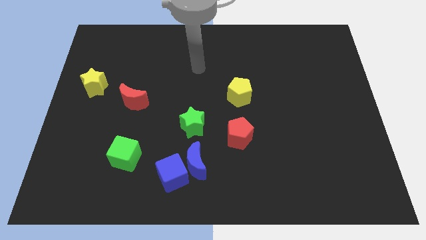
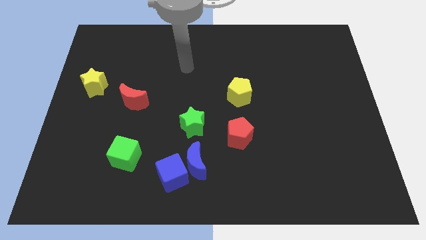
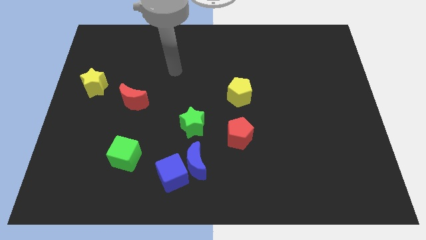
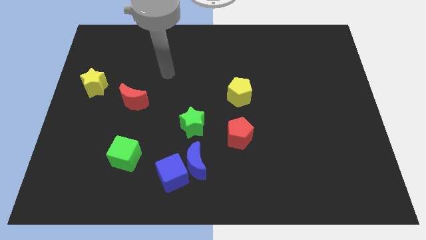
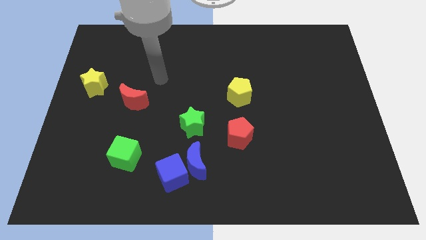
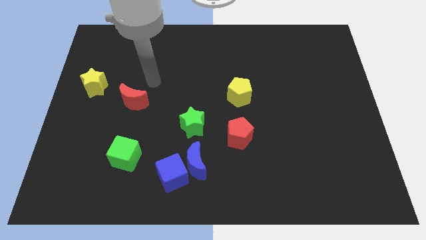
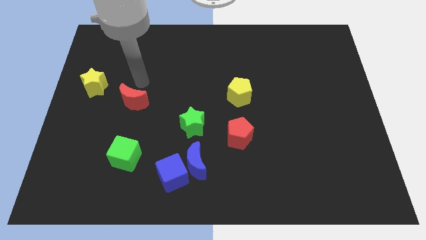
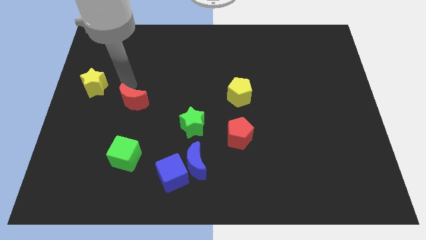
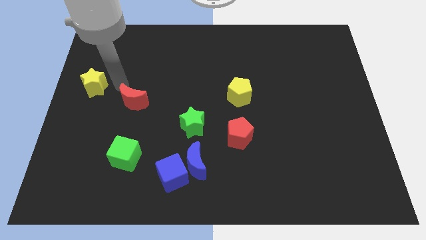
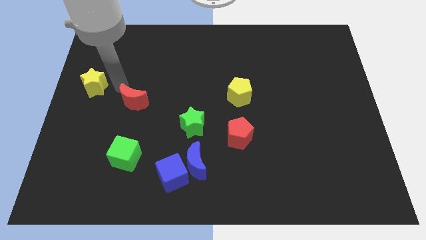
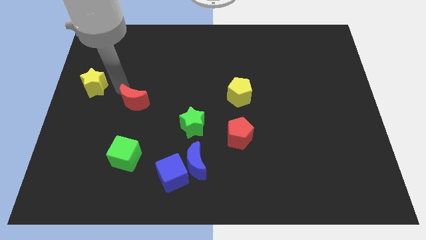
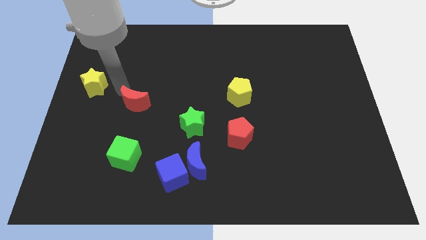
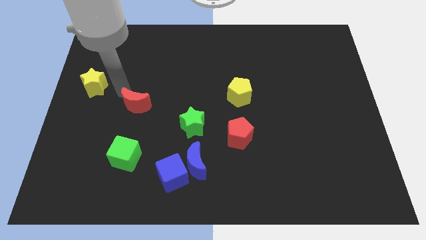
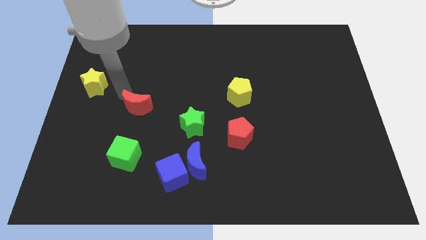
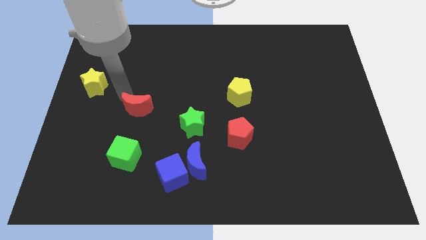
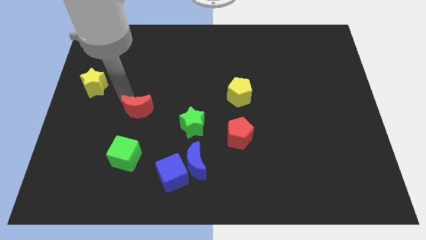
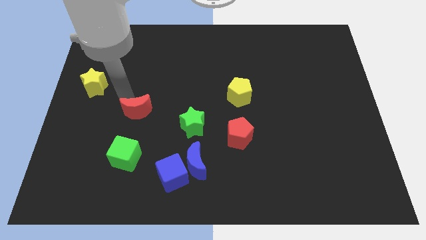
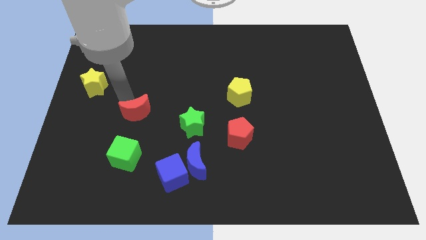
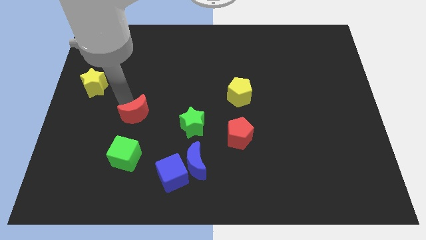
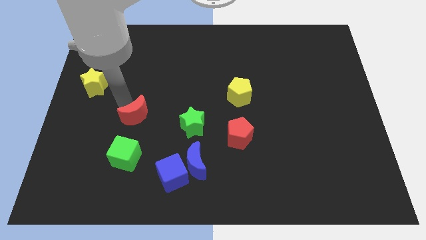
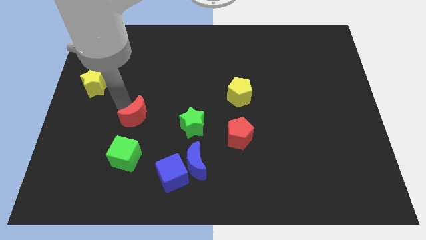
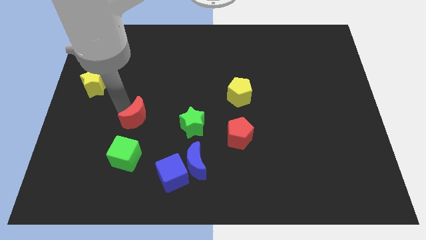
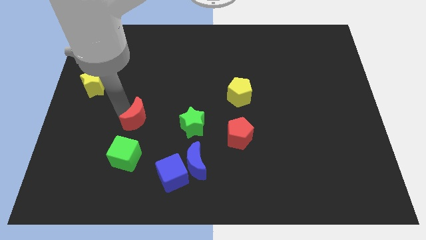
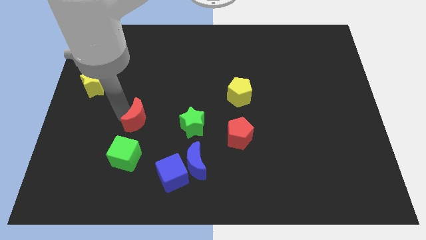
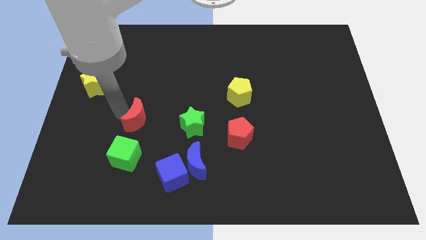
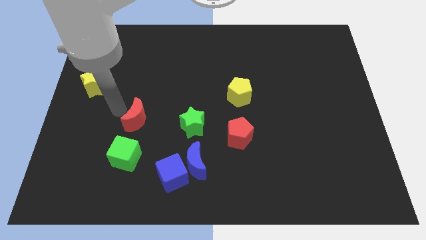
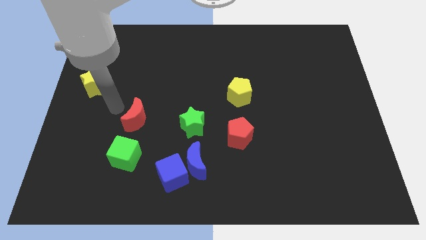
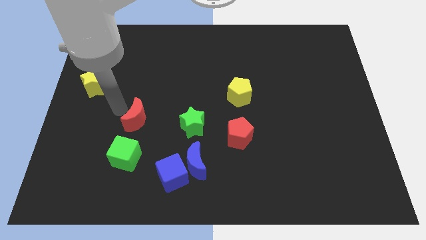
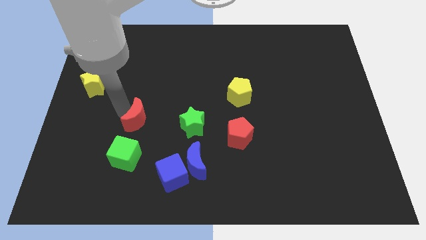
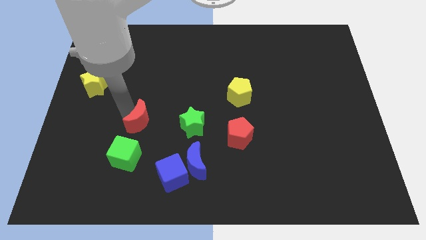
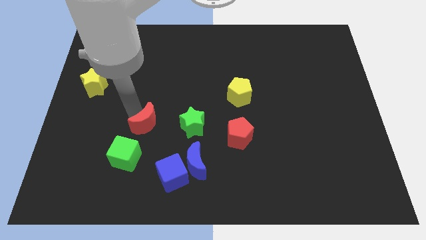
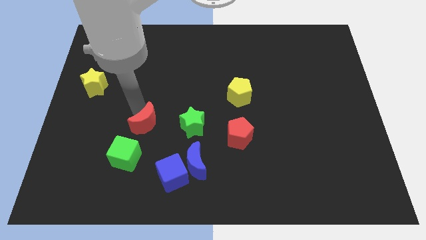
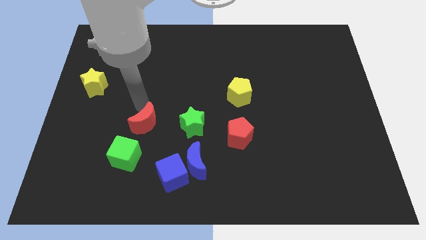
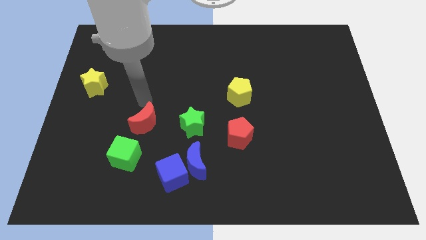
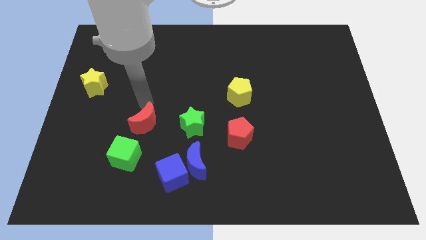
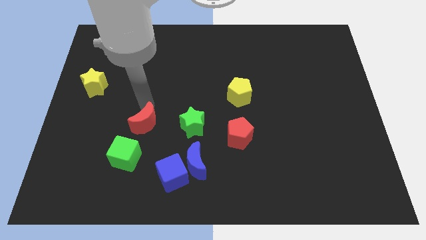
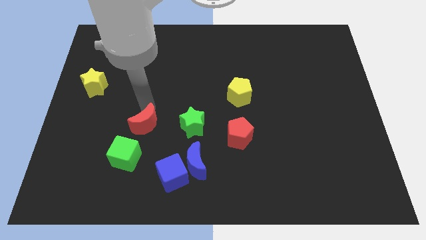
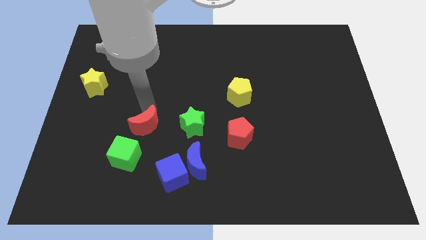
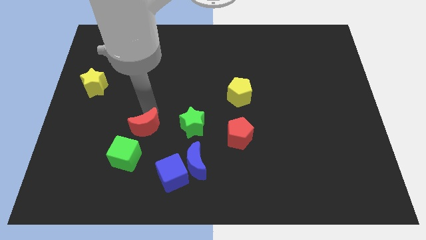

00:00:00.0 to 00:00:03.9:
slide the red moon a little bit down

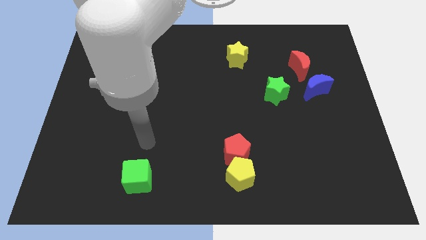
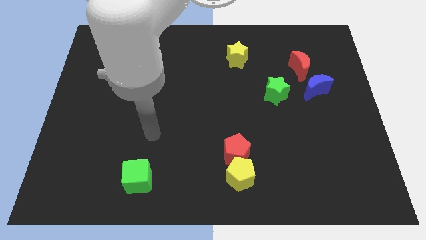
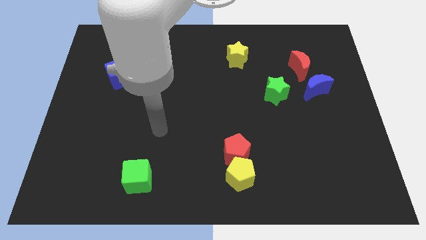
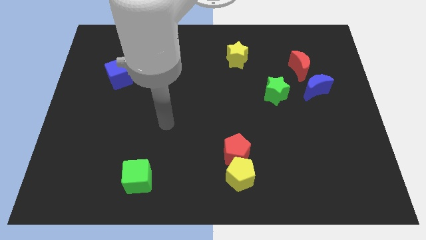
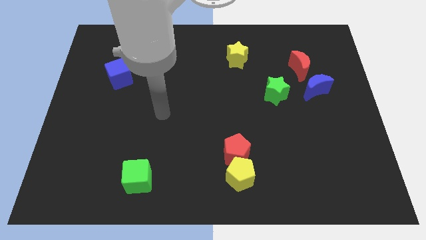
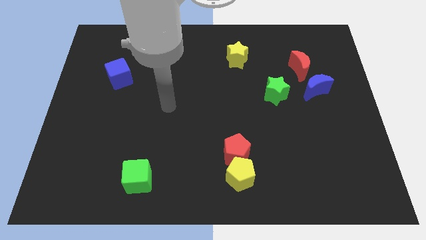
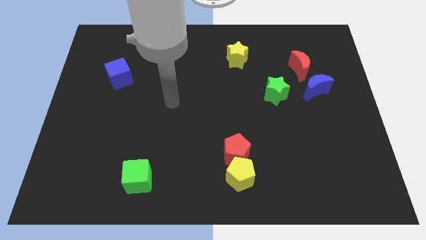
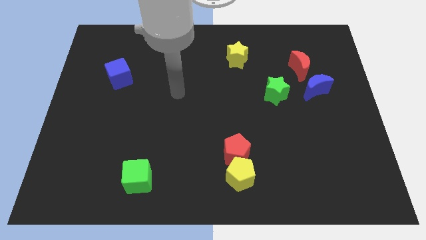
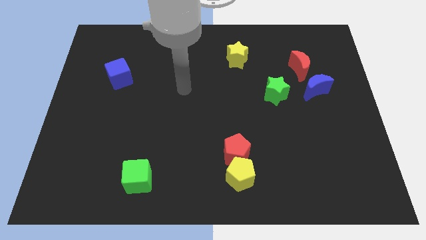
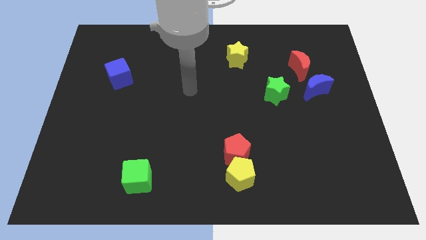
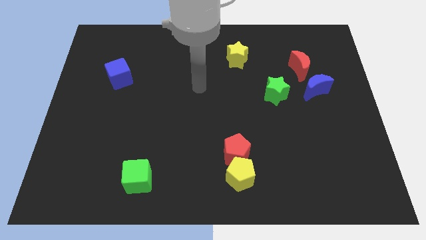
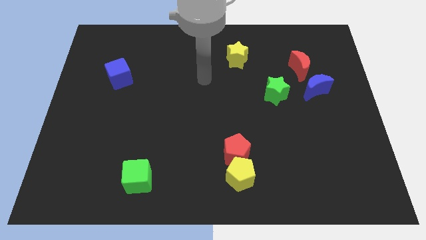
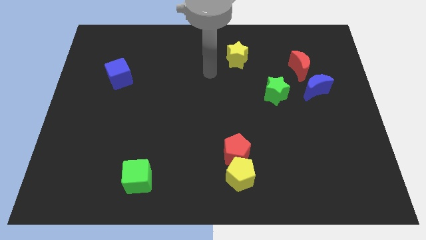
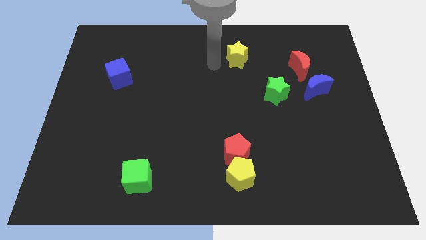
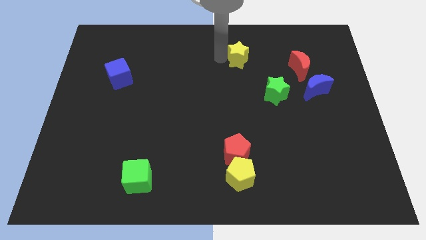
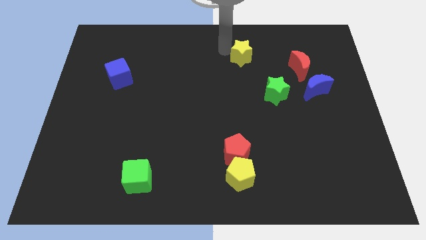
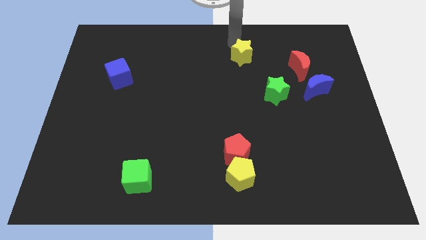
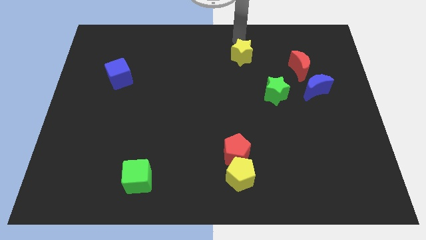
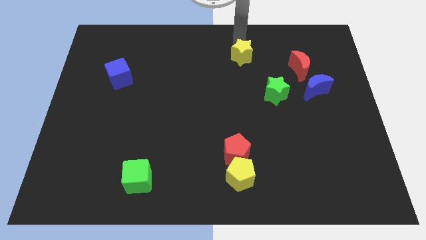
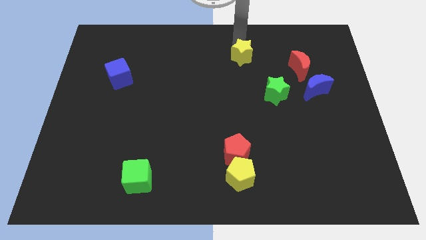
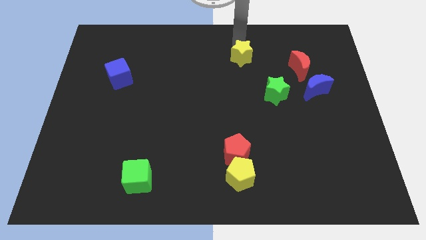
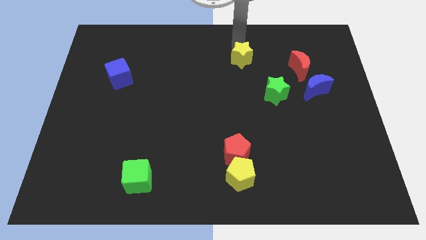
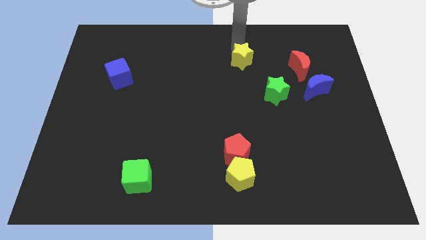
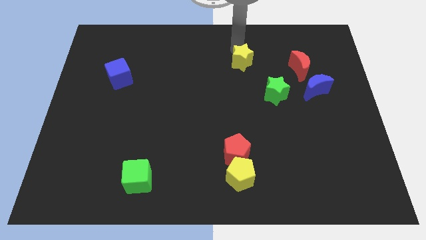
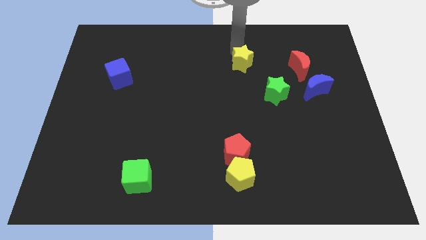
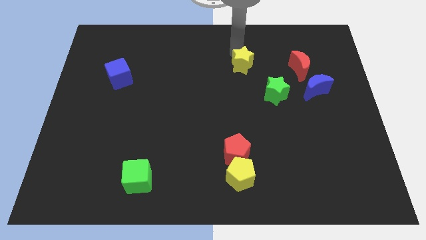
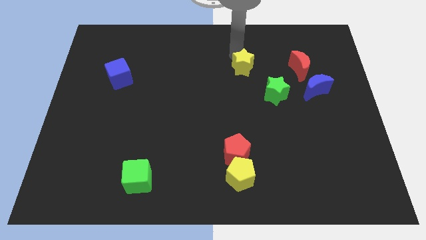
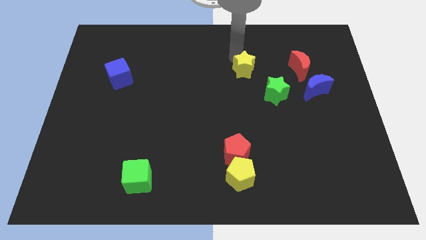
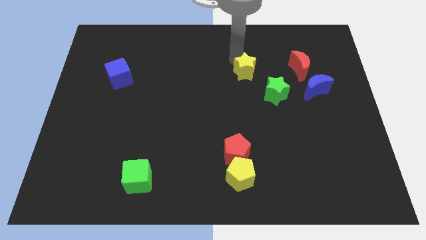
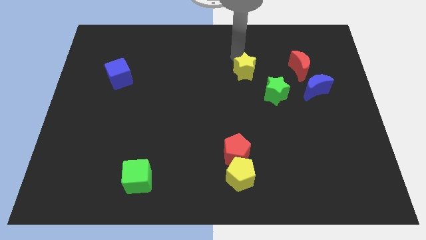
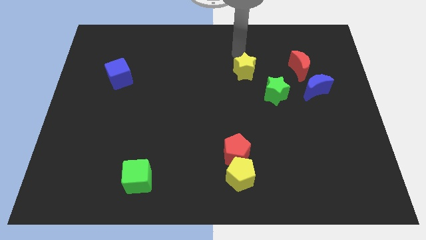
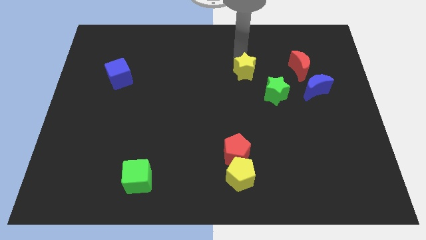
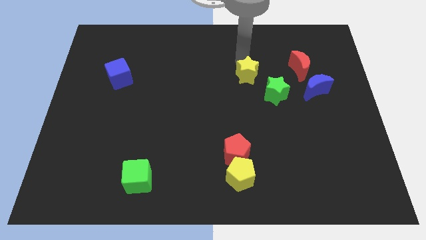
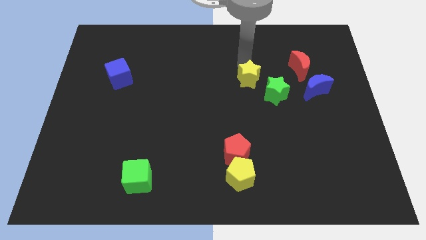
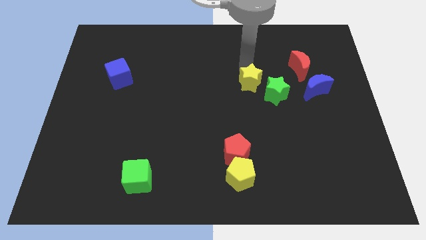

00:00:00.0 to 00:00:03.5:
move the yellow star a little downwards and right

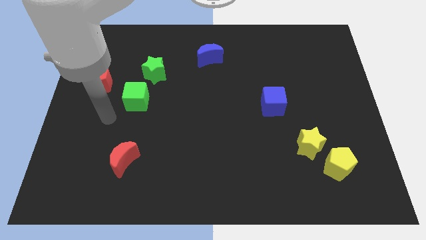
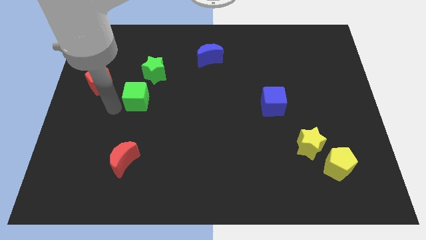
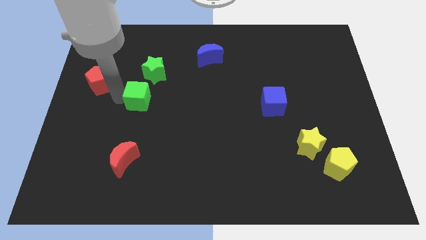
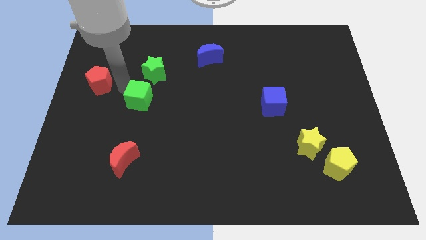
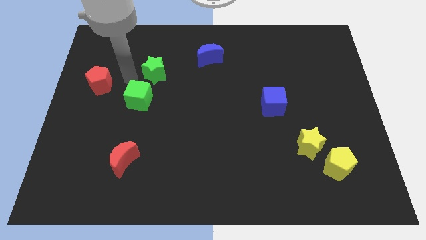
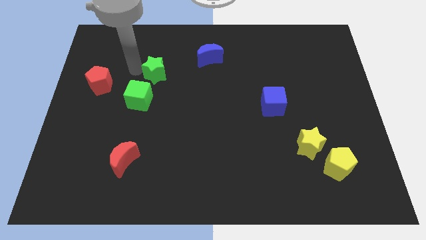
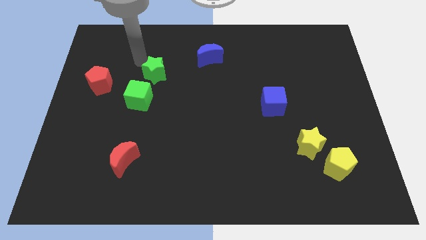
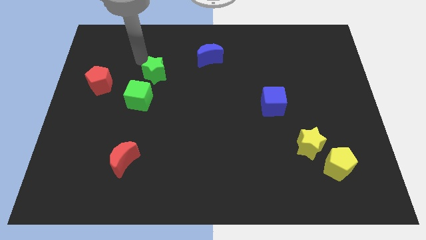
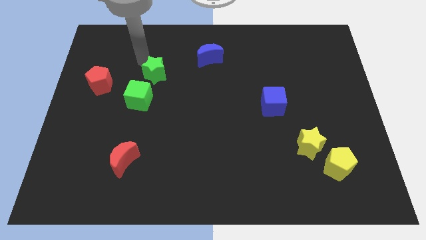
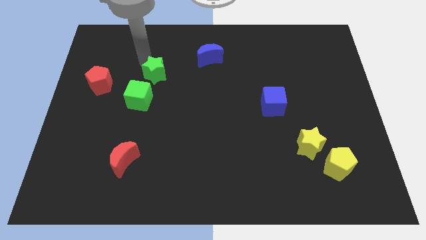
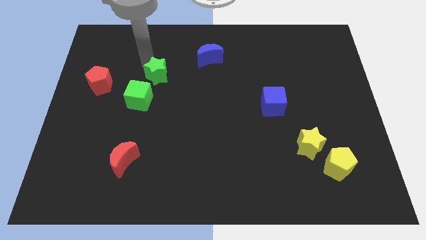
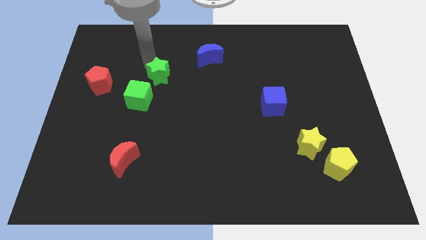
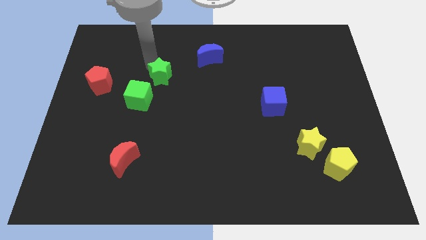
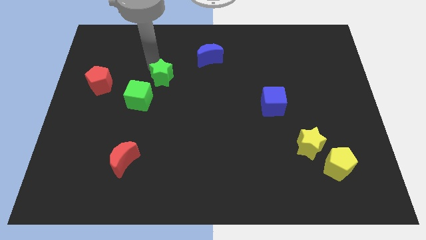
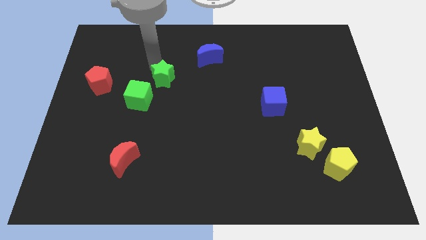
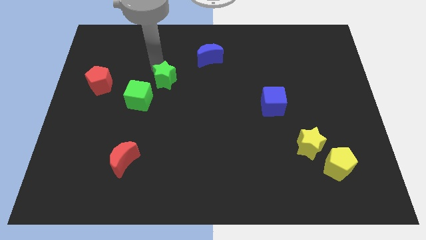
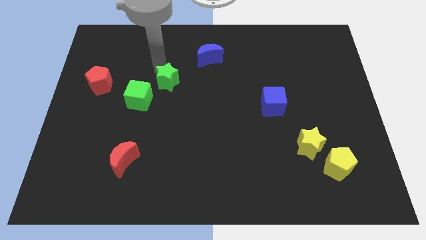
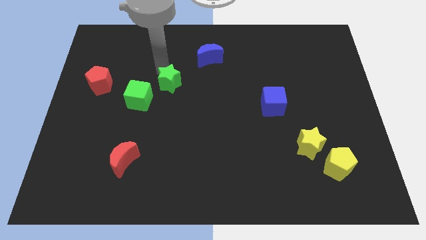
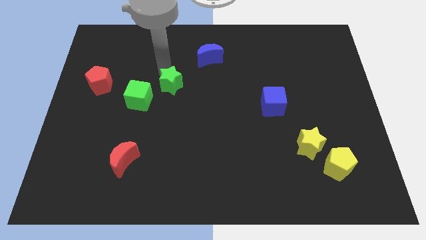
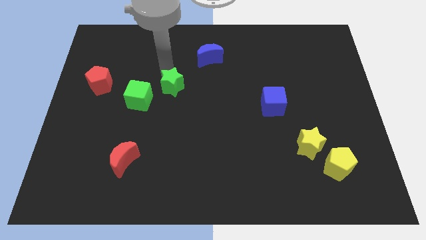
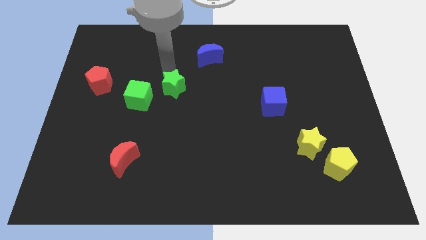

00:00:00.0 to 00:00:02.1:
slightly move the green star diagonally down and to the right
